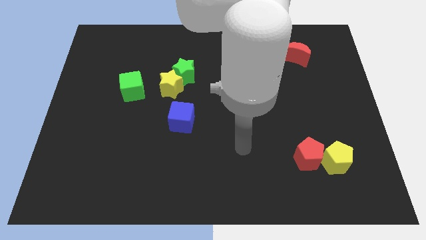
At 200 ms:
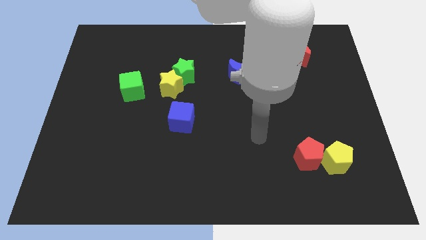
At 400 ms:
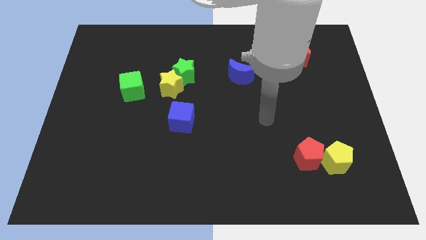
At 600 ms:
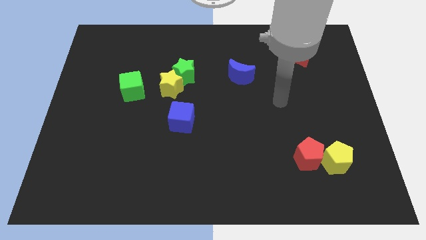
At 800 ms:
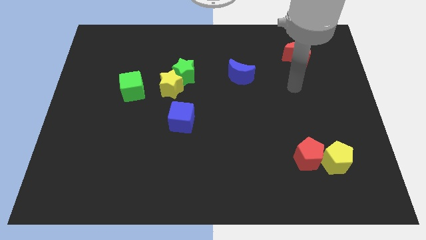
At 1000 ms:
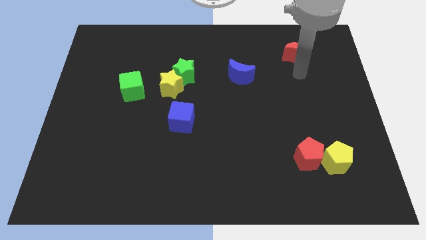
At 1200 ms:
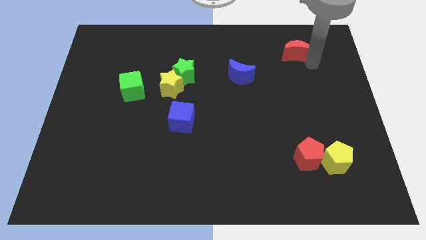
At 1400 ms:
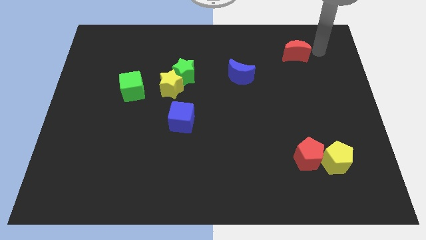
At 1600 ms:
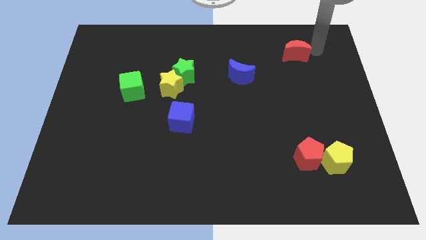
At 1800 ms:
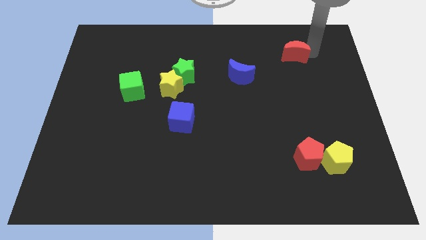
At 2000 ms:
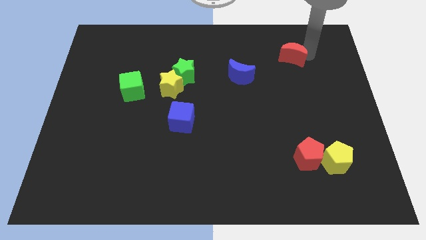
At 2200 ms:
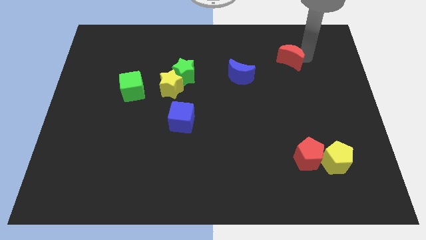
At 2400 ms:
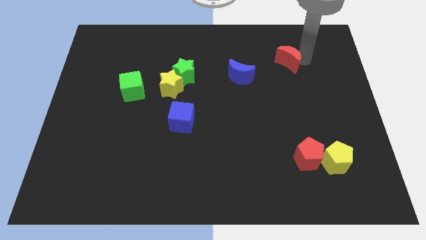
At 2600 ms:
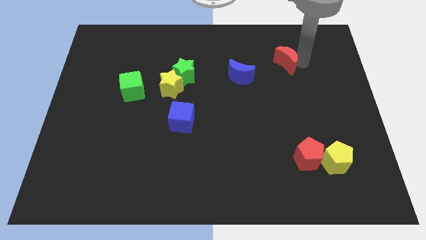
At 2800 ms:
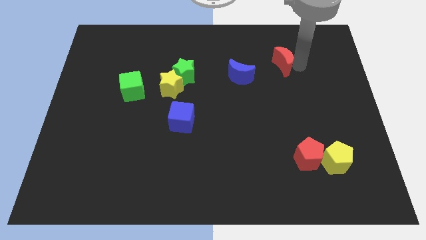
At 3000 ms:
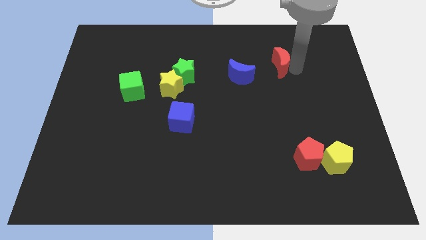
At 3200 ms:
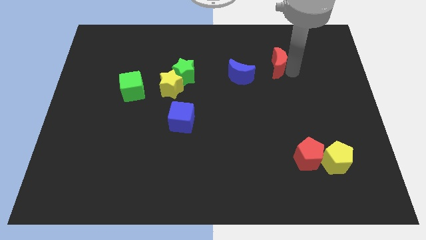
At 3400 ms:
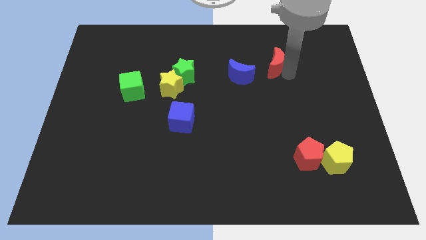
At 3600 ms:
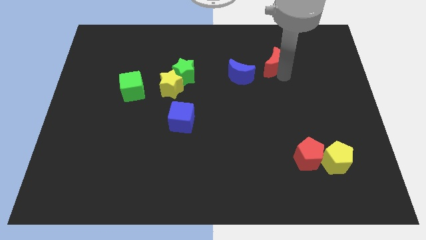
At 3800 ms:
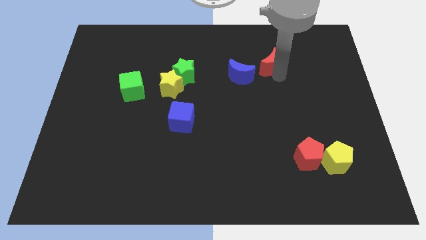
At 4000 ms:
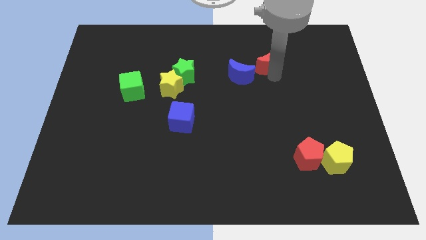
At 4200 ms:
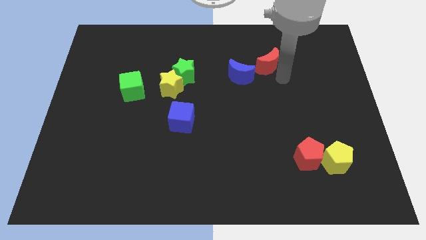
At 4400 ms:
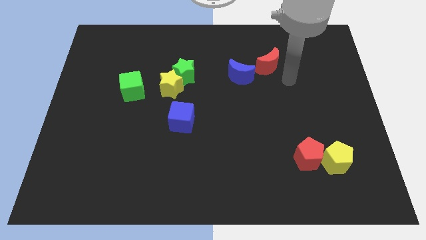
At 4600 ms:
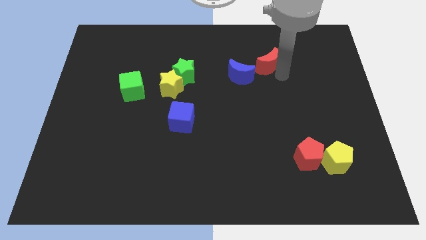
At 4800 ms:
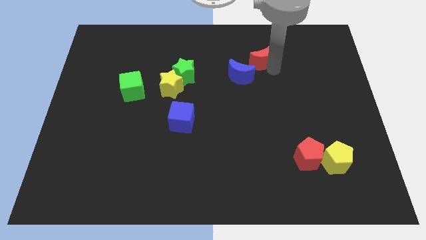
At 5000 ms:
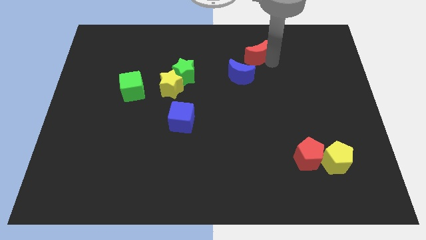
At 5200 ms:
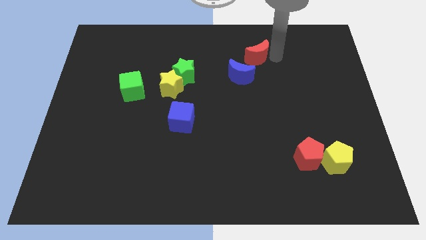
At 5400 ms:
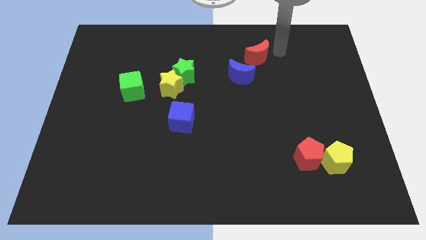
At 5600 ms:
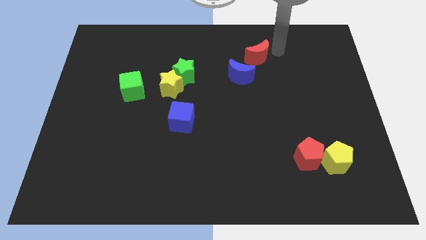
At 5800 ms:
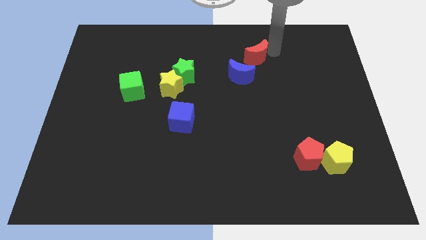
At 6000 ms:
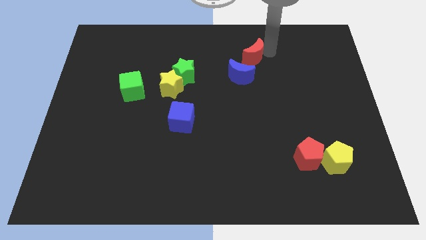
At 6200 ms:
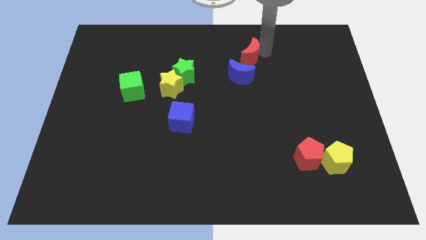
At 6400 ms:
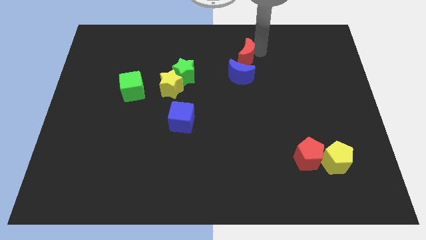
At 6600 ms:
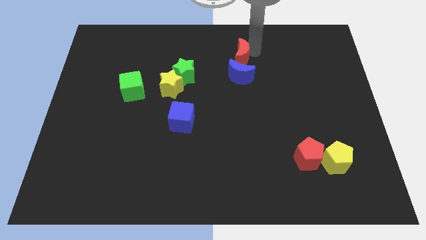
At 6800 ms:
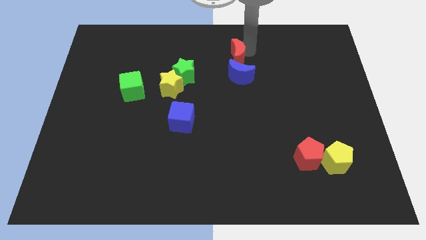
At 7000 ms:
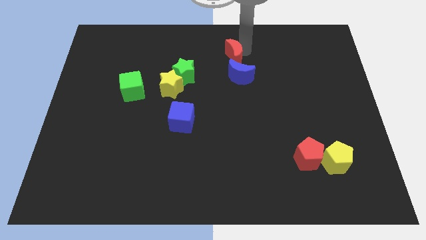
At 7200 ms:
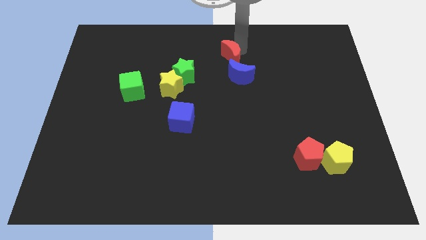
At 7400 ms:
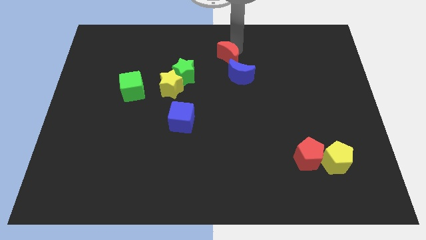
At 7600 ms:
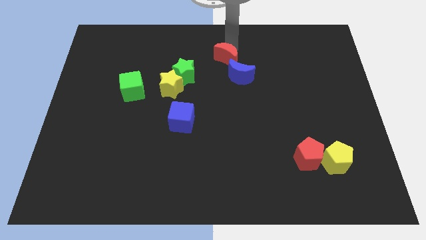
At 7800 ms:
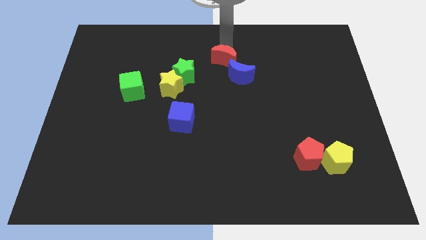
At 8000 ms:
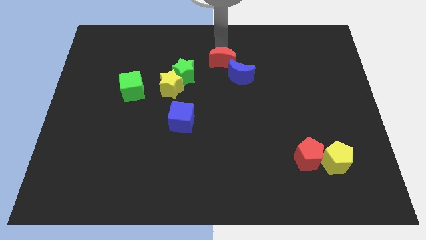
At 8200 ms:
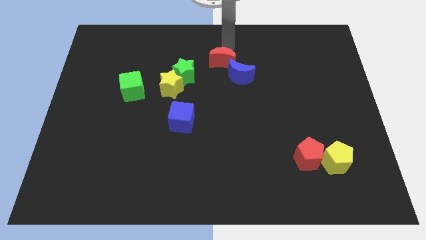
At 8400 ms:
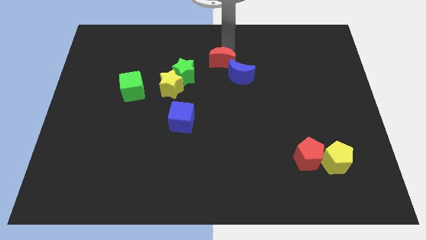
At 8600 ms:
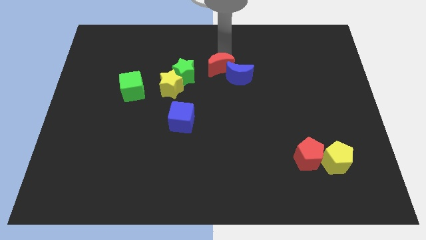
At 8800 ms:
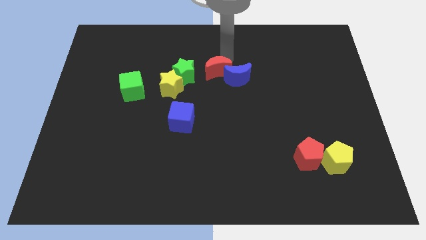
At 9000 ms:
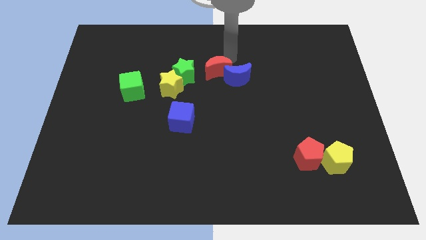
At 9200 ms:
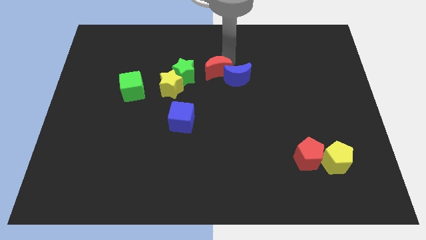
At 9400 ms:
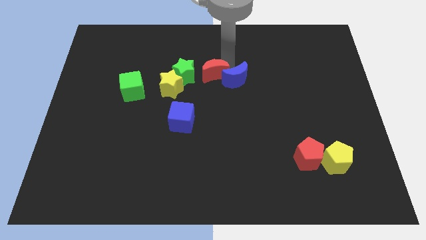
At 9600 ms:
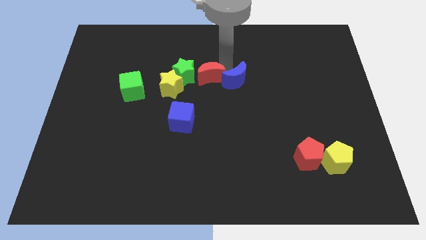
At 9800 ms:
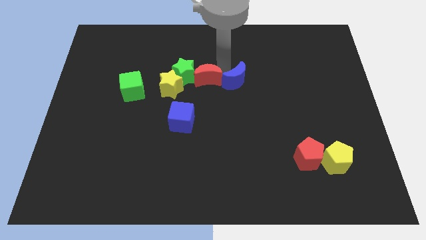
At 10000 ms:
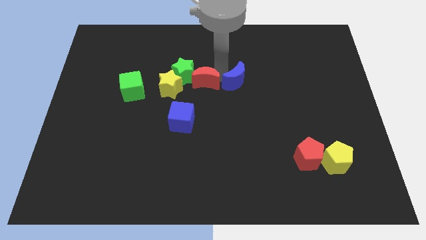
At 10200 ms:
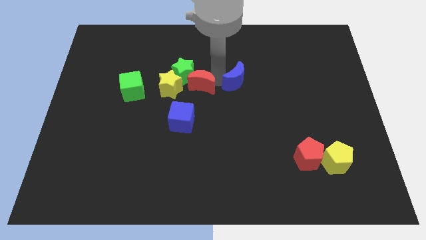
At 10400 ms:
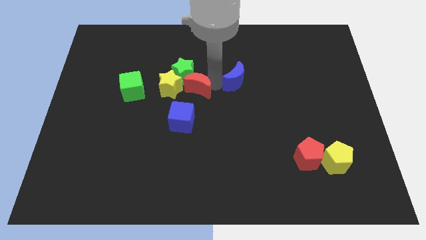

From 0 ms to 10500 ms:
push the red moon to the bottom right side of the yellow star

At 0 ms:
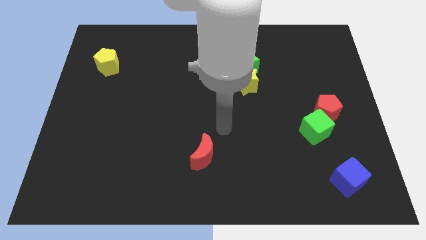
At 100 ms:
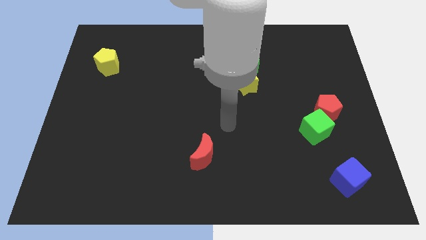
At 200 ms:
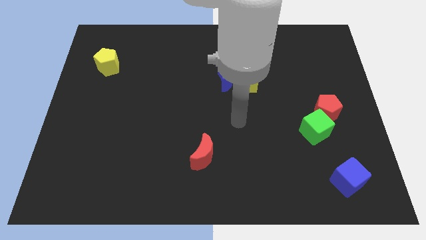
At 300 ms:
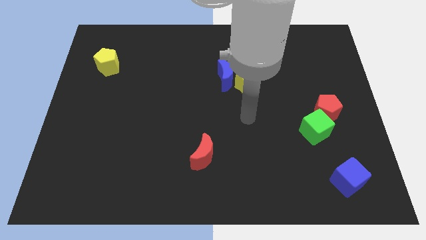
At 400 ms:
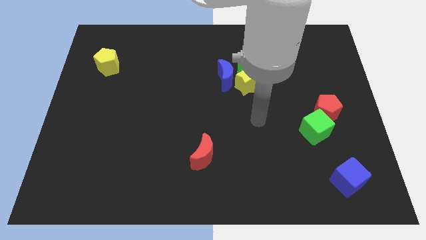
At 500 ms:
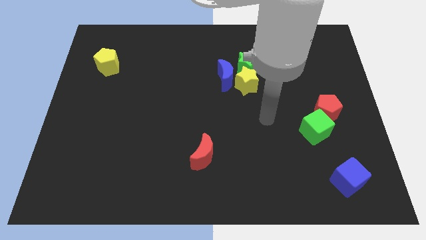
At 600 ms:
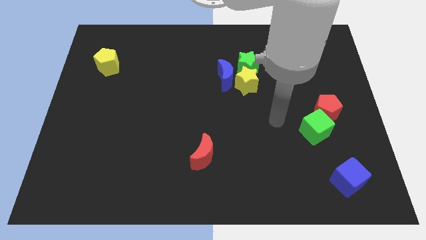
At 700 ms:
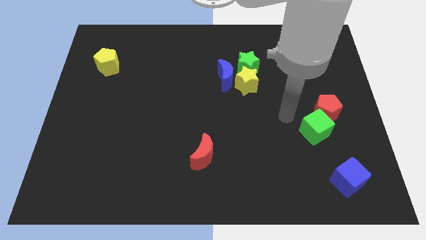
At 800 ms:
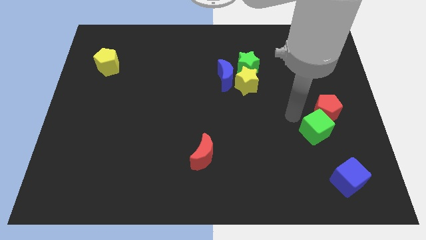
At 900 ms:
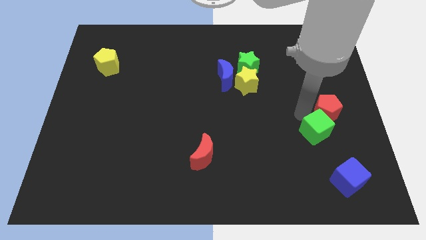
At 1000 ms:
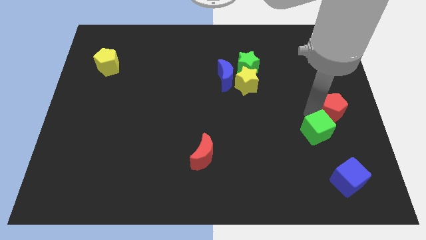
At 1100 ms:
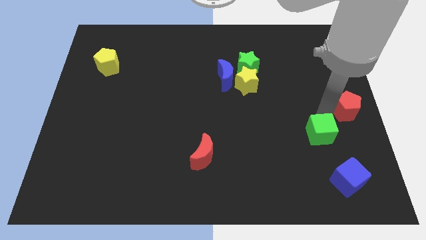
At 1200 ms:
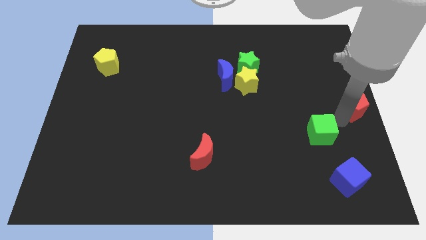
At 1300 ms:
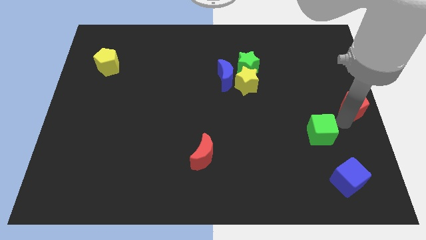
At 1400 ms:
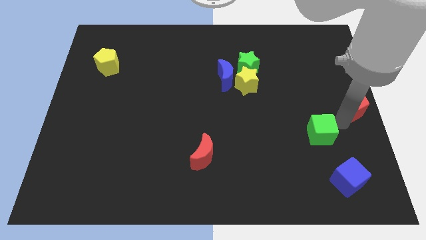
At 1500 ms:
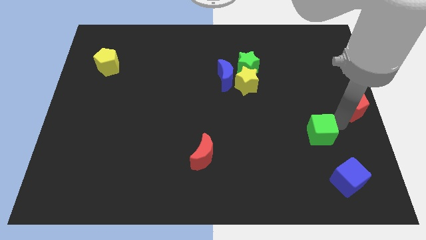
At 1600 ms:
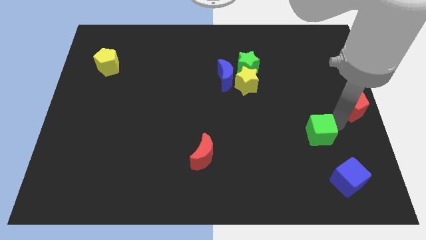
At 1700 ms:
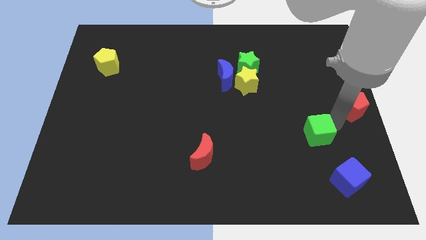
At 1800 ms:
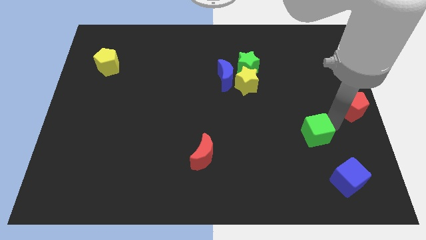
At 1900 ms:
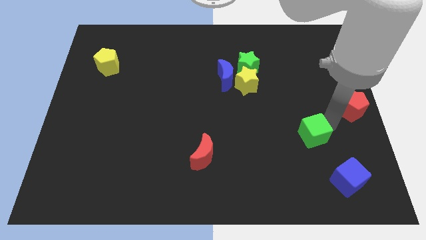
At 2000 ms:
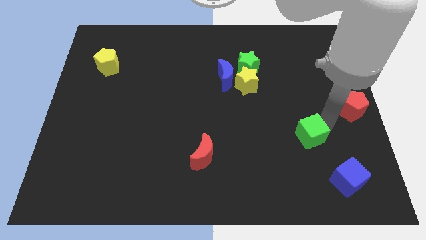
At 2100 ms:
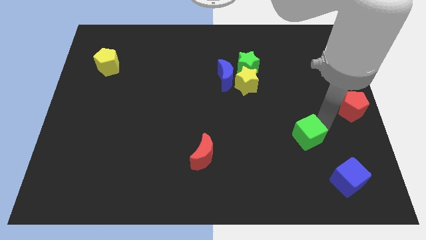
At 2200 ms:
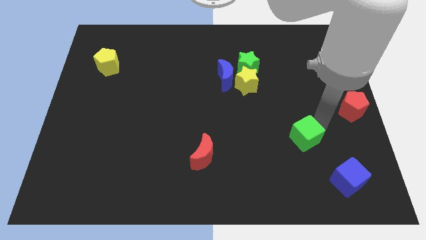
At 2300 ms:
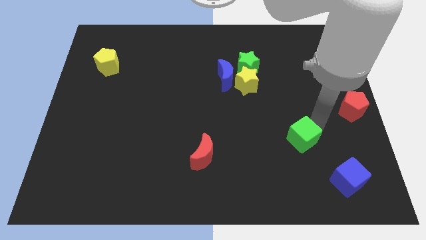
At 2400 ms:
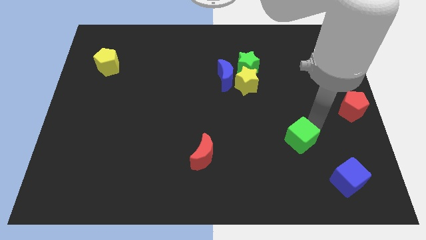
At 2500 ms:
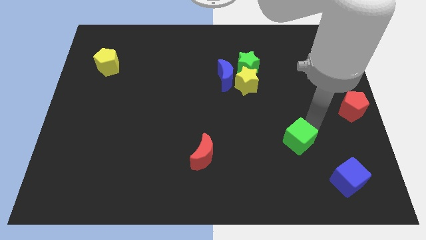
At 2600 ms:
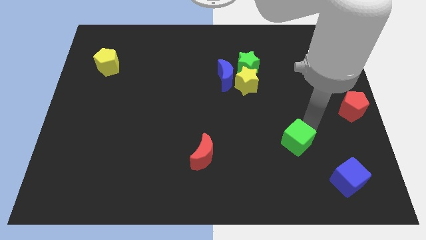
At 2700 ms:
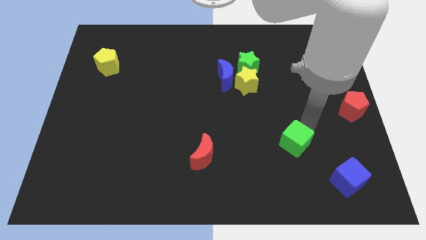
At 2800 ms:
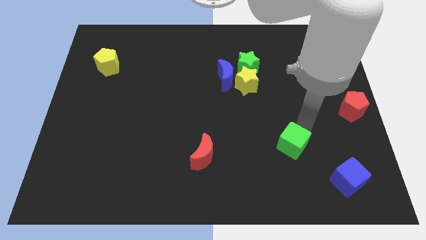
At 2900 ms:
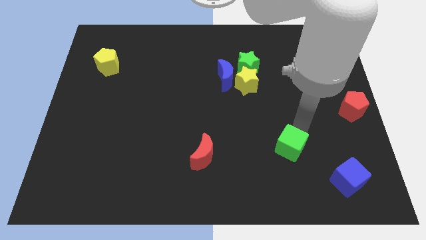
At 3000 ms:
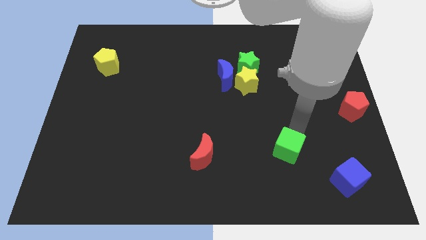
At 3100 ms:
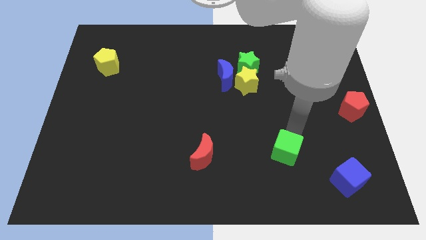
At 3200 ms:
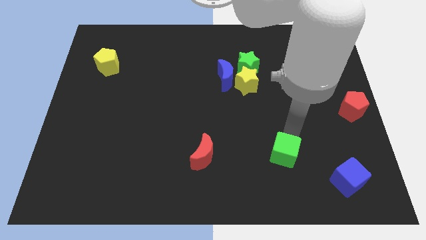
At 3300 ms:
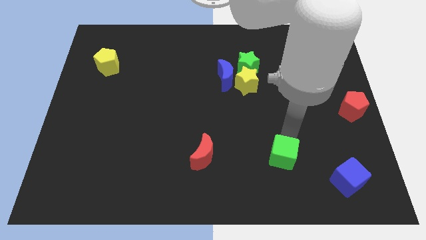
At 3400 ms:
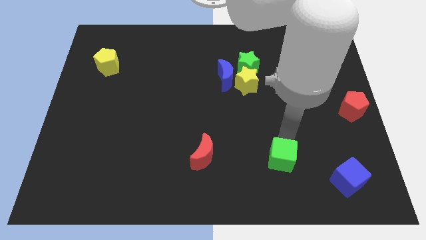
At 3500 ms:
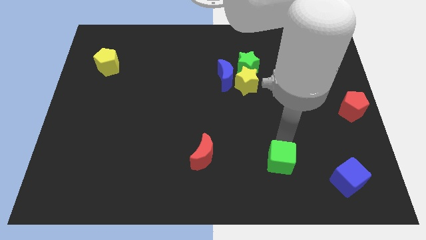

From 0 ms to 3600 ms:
slide the green cube to the left side of the blue cube
